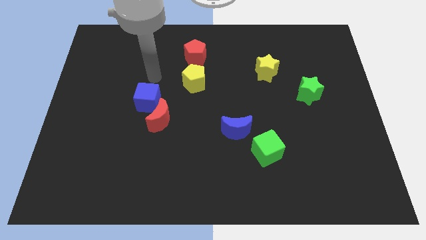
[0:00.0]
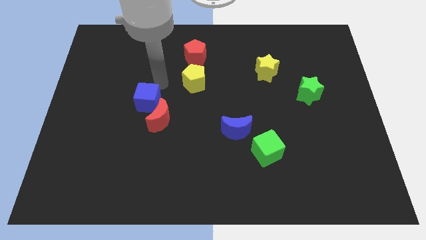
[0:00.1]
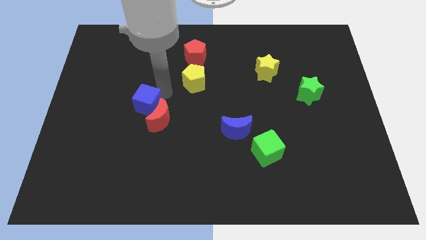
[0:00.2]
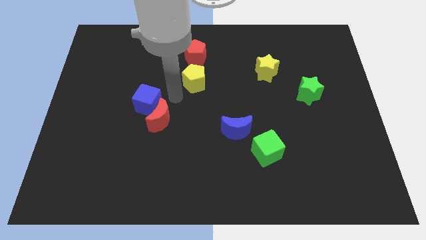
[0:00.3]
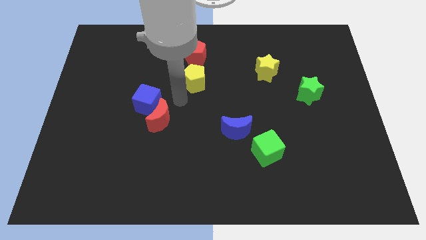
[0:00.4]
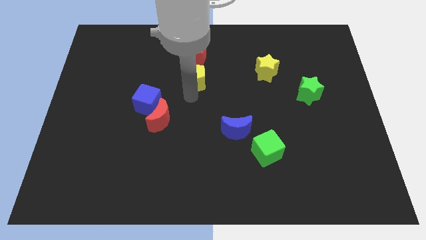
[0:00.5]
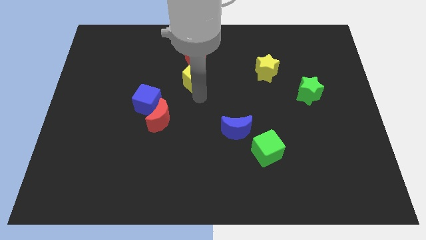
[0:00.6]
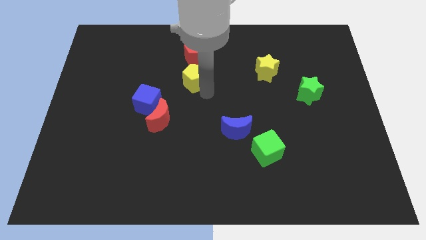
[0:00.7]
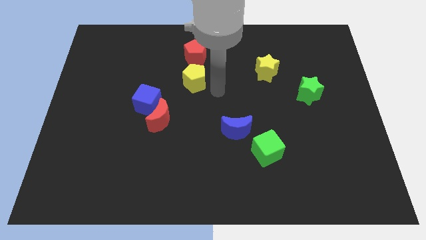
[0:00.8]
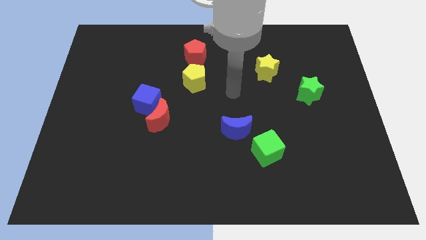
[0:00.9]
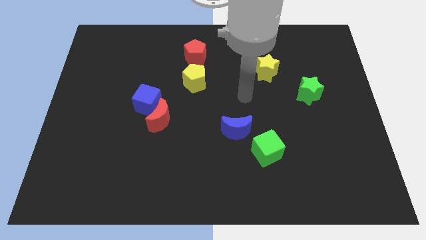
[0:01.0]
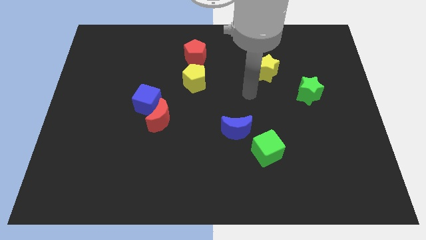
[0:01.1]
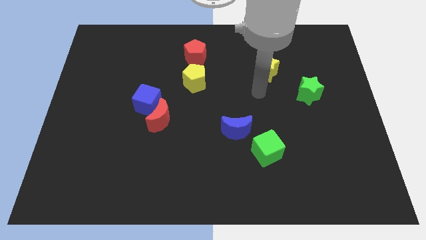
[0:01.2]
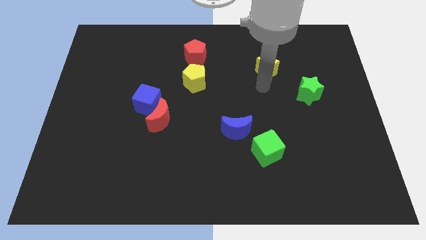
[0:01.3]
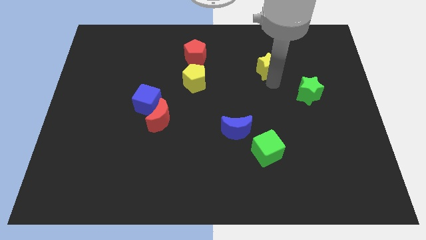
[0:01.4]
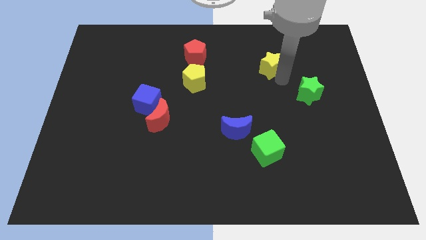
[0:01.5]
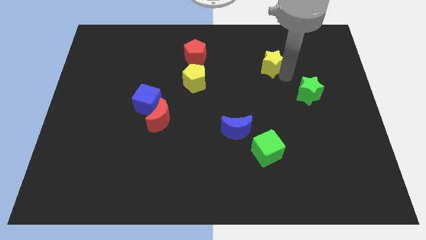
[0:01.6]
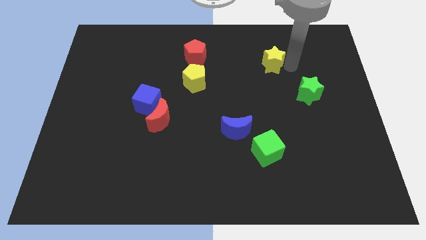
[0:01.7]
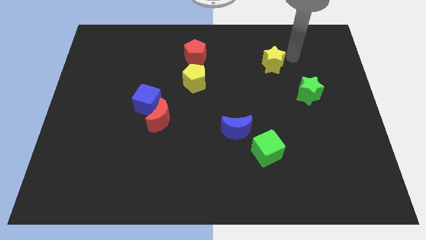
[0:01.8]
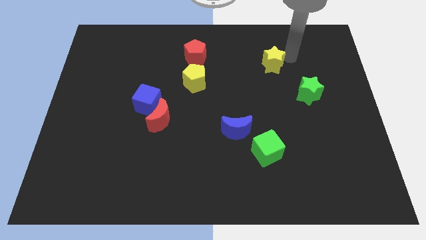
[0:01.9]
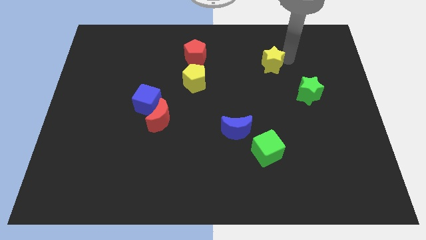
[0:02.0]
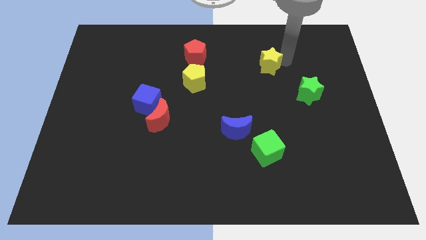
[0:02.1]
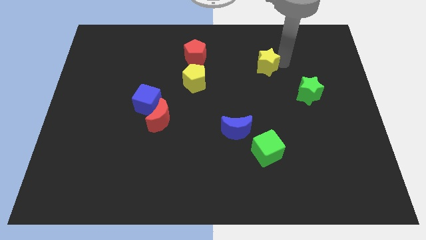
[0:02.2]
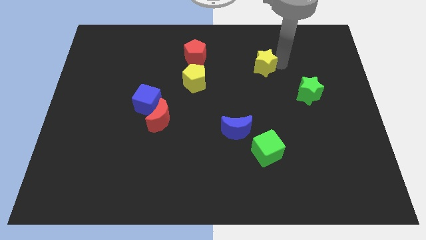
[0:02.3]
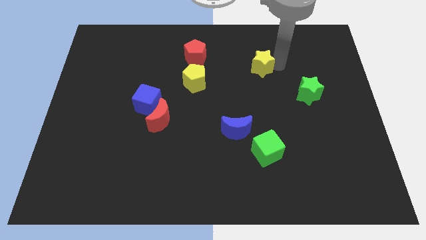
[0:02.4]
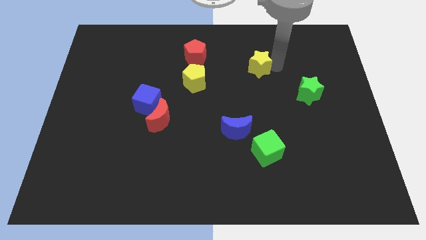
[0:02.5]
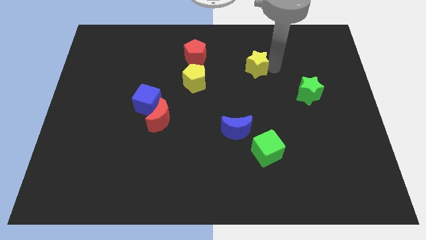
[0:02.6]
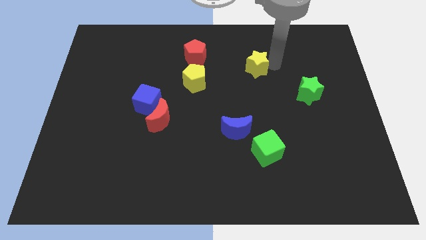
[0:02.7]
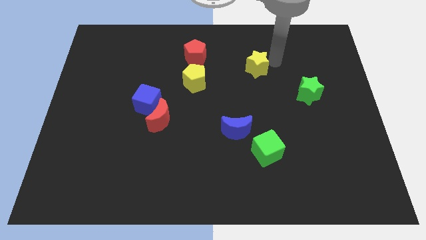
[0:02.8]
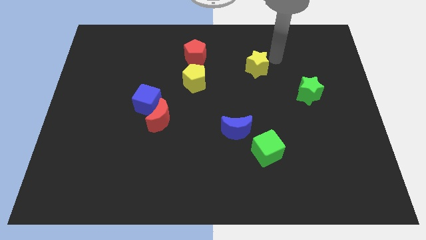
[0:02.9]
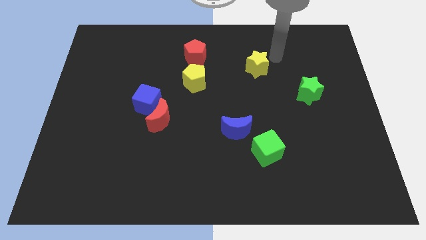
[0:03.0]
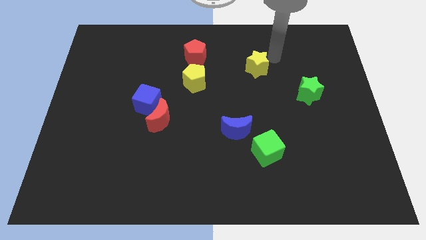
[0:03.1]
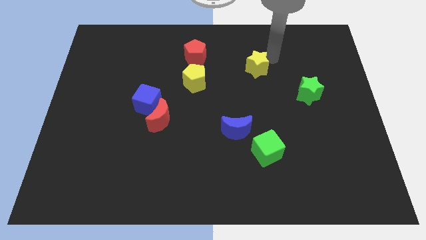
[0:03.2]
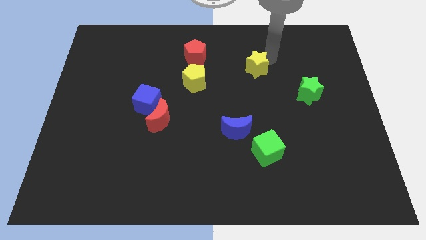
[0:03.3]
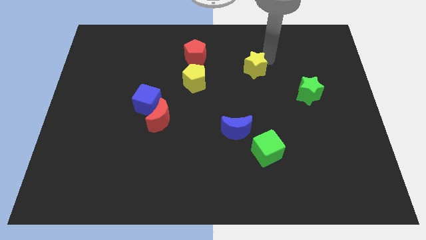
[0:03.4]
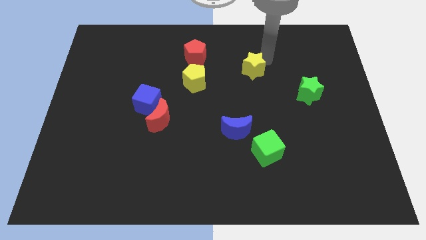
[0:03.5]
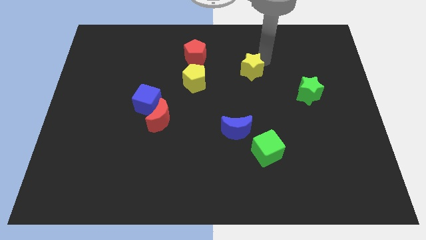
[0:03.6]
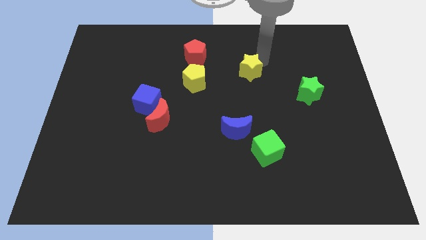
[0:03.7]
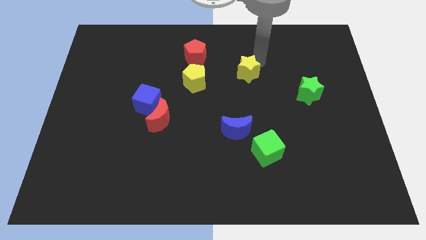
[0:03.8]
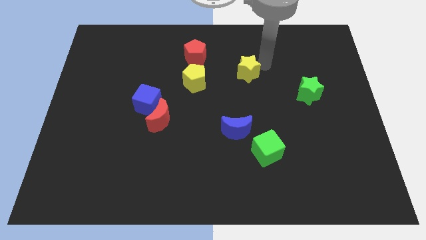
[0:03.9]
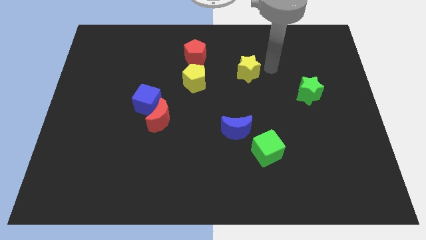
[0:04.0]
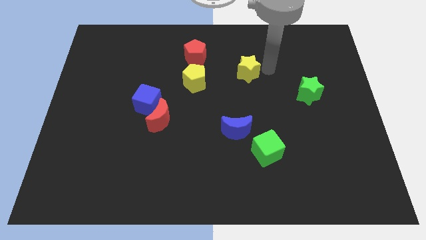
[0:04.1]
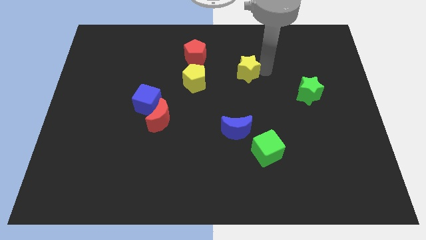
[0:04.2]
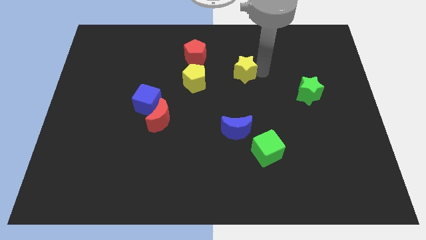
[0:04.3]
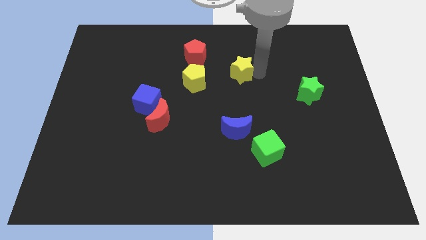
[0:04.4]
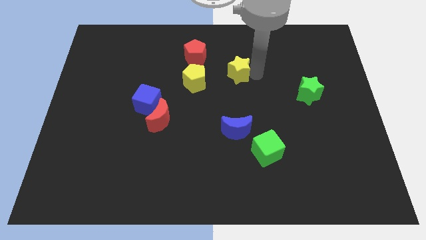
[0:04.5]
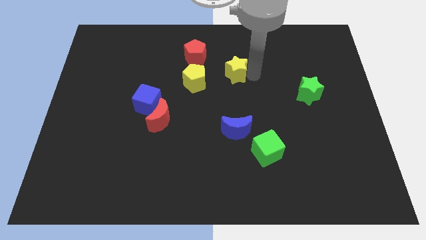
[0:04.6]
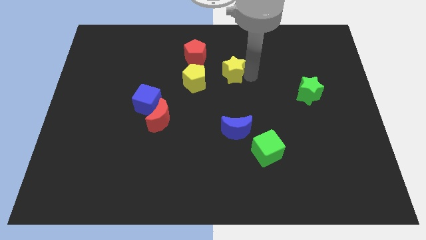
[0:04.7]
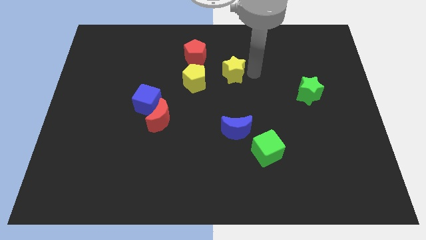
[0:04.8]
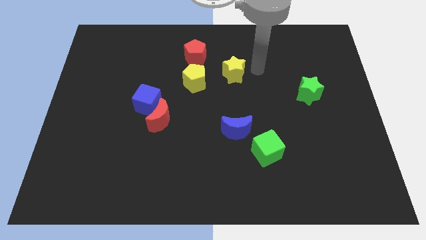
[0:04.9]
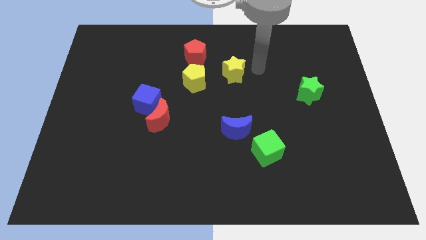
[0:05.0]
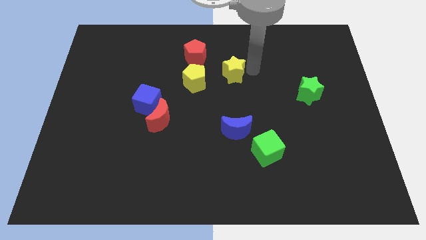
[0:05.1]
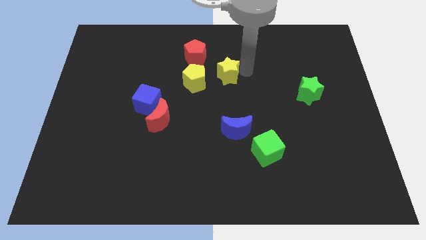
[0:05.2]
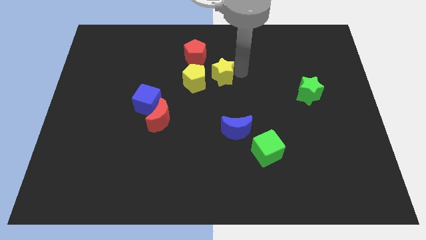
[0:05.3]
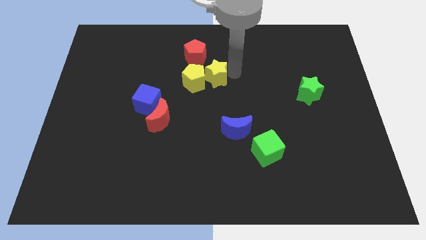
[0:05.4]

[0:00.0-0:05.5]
move the yellow star next to the yellow pentagon

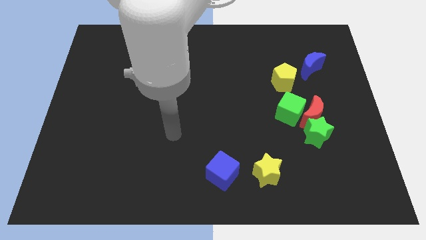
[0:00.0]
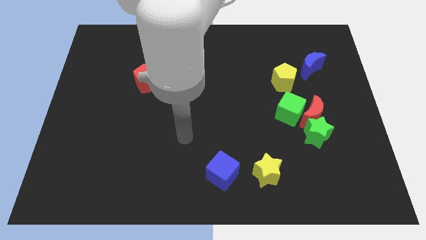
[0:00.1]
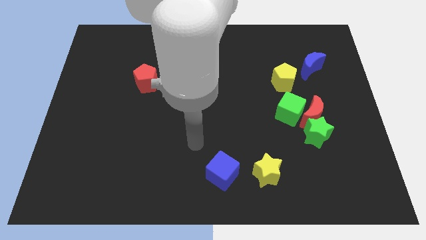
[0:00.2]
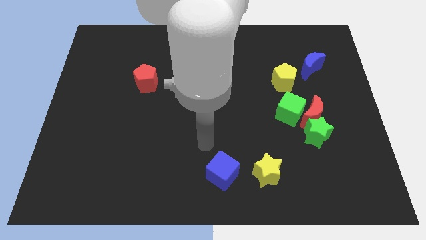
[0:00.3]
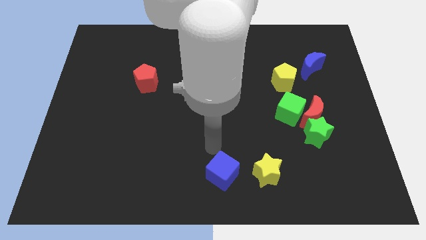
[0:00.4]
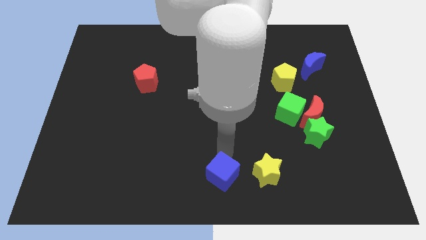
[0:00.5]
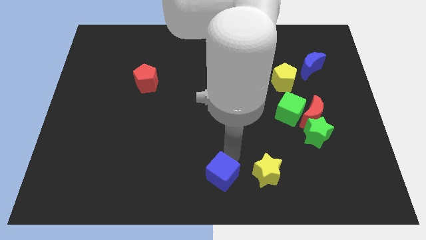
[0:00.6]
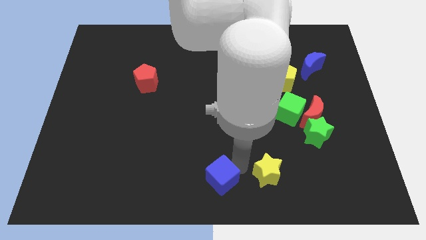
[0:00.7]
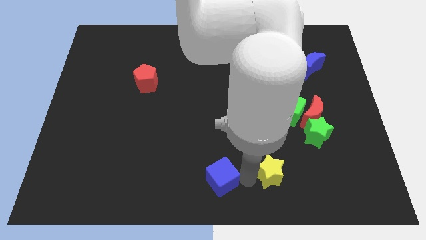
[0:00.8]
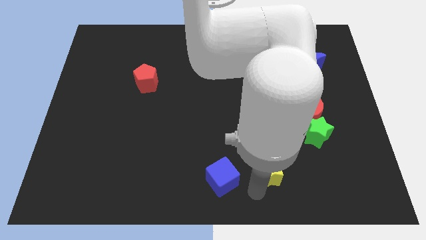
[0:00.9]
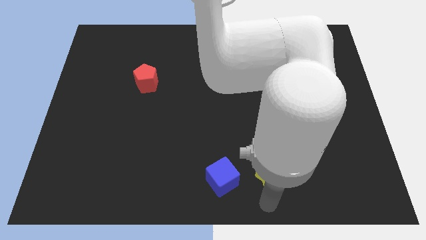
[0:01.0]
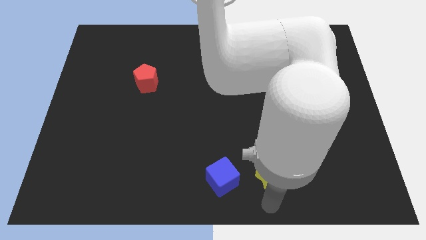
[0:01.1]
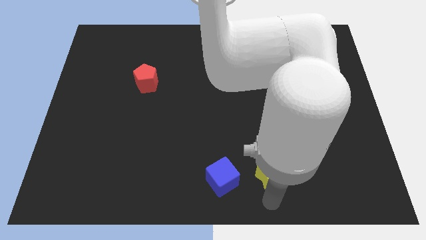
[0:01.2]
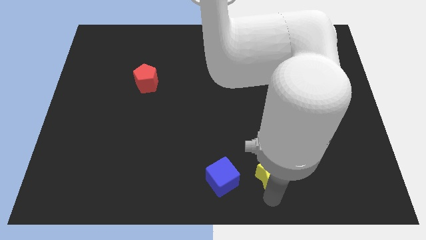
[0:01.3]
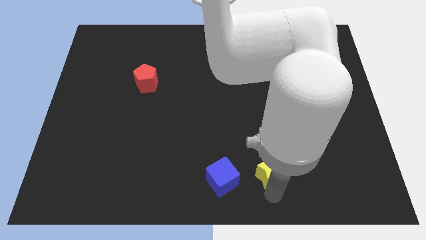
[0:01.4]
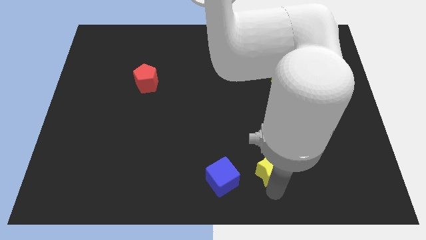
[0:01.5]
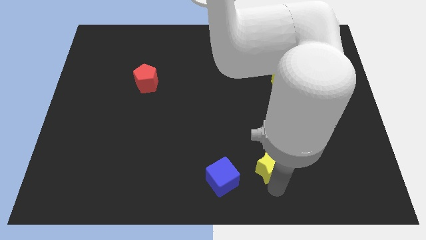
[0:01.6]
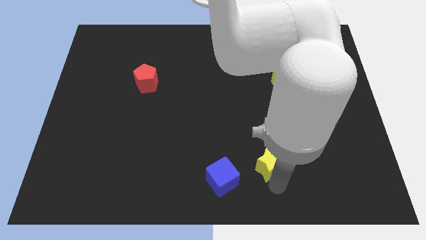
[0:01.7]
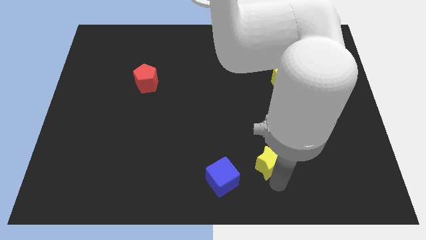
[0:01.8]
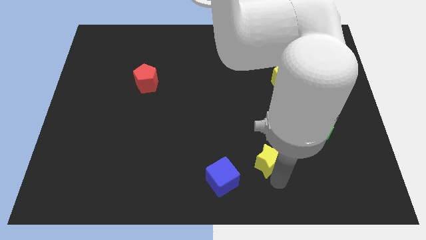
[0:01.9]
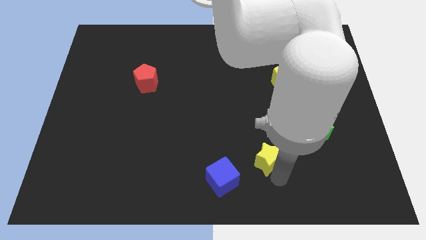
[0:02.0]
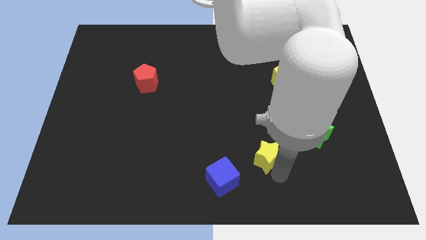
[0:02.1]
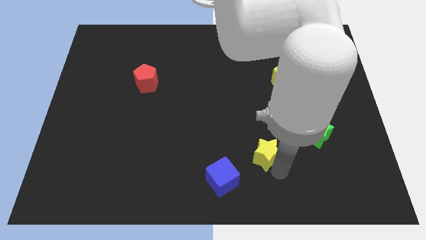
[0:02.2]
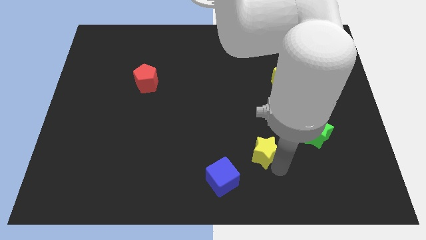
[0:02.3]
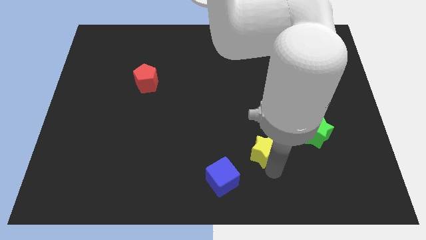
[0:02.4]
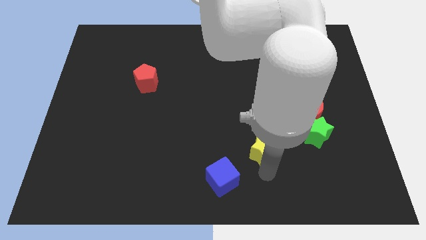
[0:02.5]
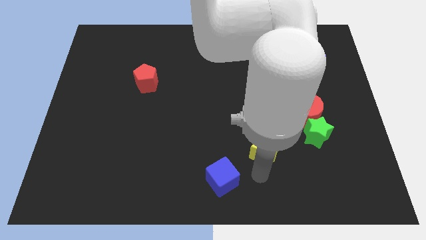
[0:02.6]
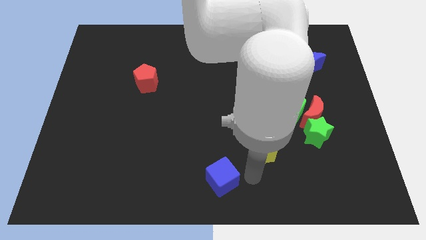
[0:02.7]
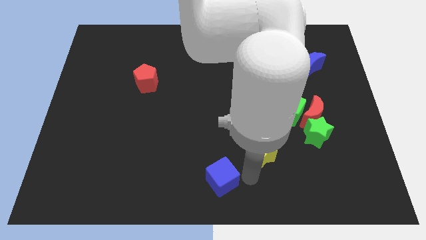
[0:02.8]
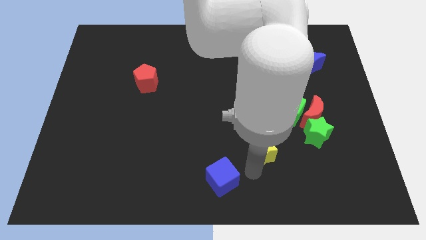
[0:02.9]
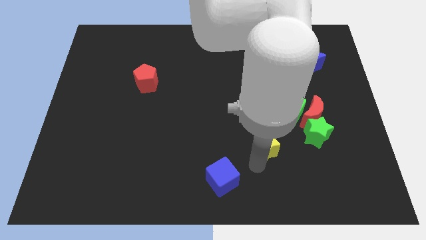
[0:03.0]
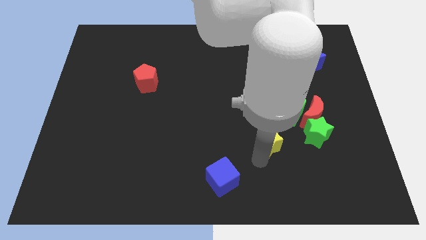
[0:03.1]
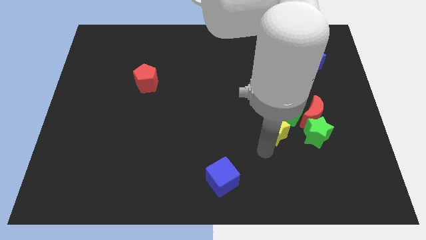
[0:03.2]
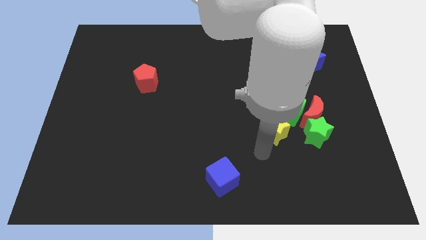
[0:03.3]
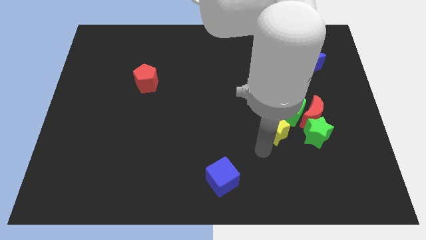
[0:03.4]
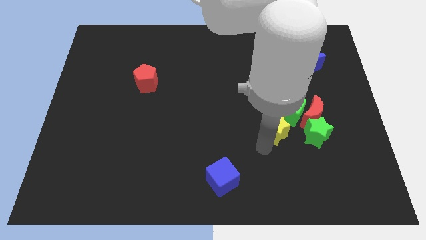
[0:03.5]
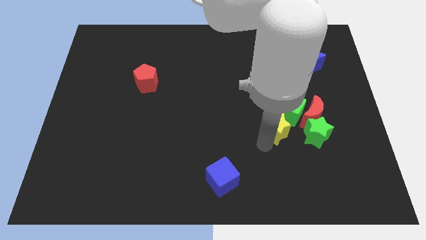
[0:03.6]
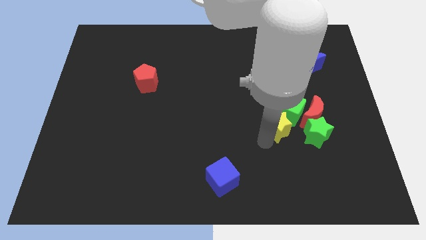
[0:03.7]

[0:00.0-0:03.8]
push the yellow star to the green cube
